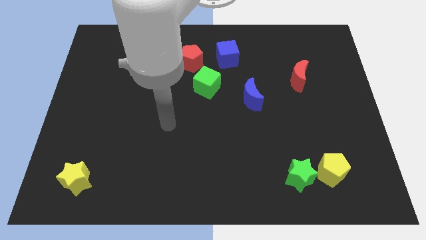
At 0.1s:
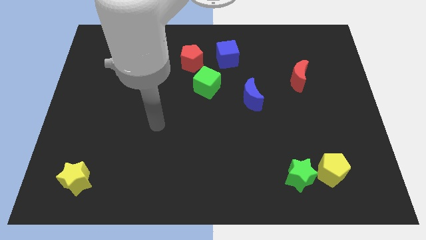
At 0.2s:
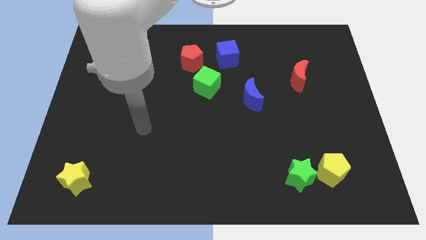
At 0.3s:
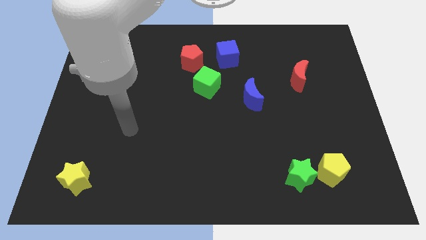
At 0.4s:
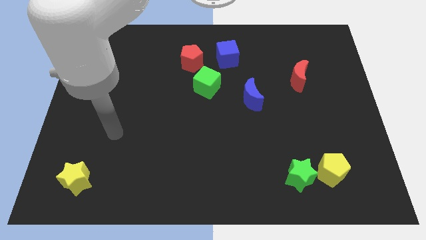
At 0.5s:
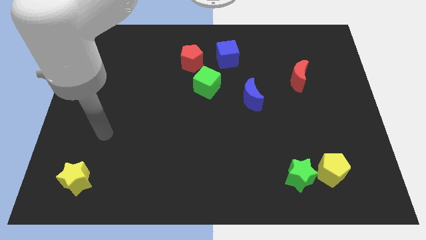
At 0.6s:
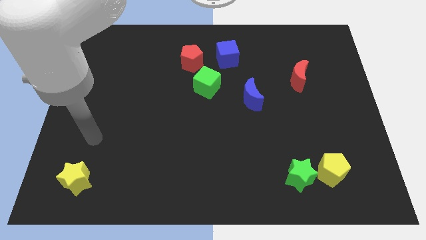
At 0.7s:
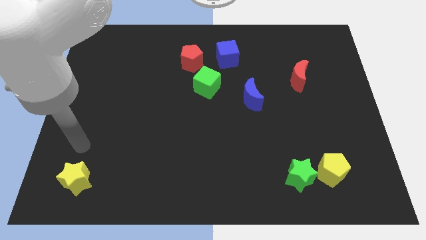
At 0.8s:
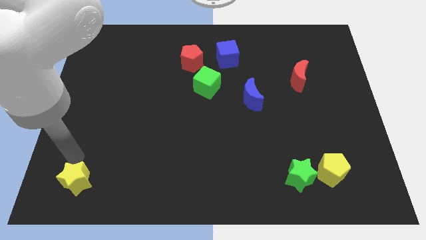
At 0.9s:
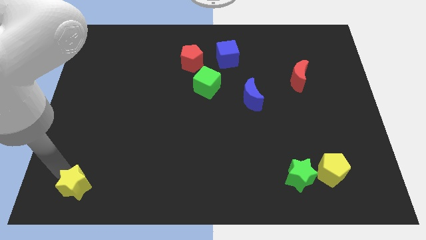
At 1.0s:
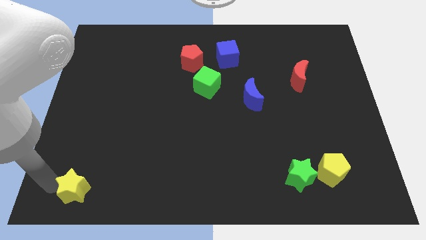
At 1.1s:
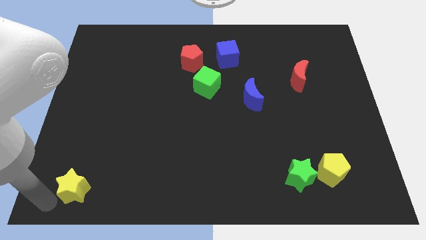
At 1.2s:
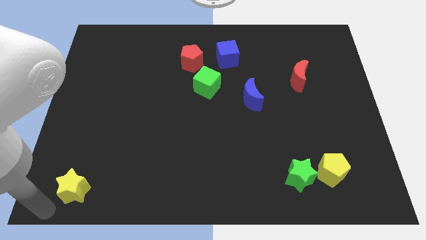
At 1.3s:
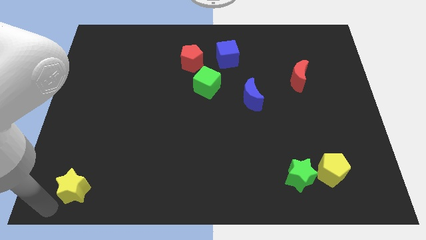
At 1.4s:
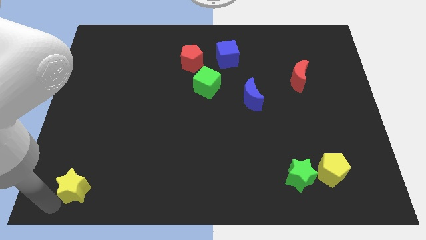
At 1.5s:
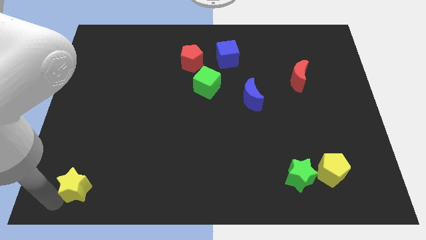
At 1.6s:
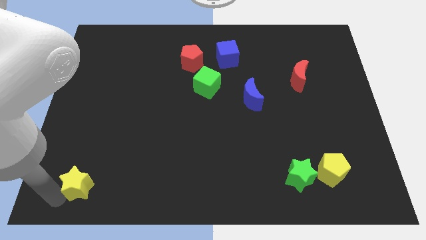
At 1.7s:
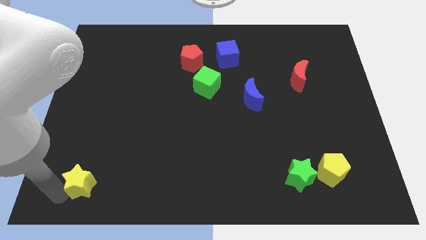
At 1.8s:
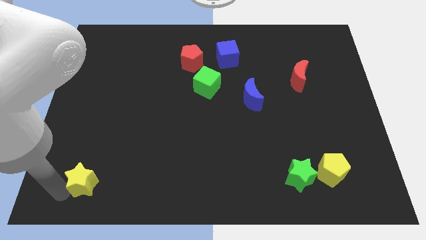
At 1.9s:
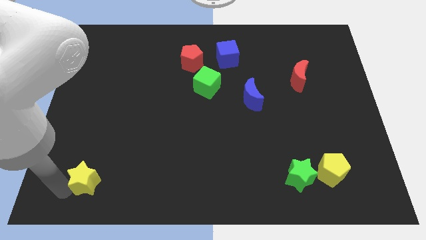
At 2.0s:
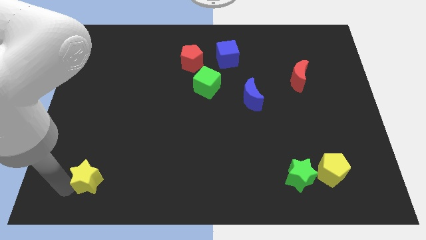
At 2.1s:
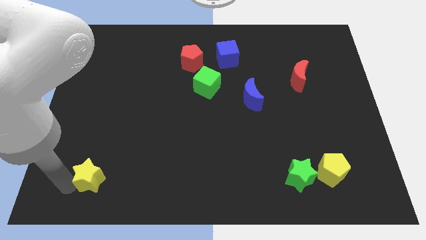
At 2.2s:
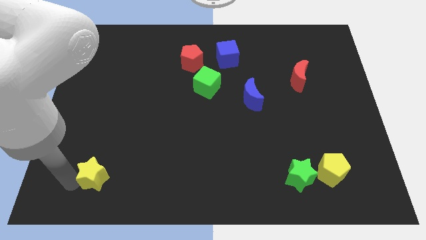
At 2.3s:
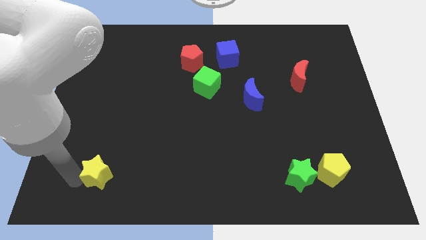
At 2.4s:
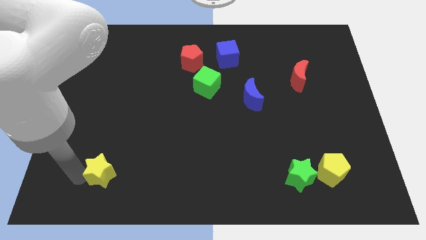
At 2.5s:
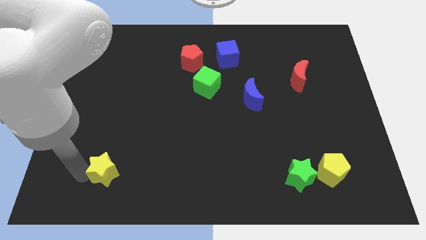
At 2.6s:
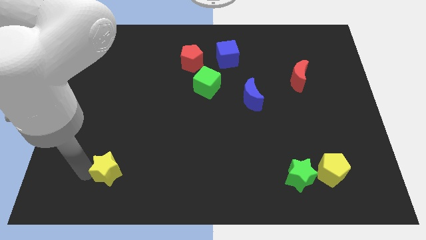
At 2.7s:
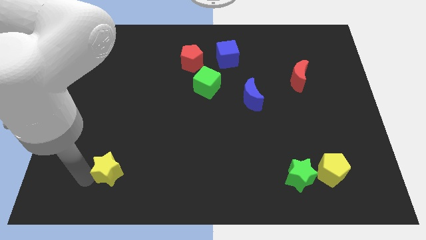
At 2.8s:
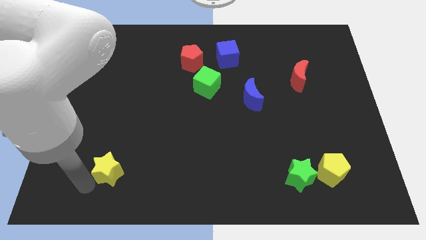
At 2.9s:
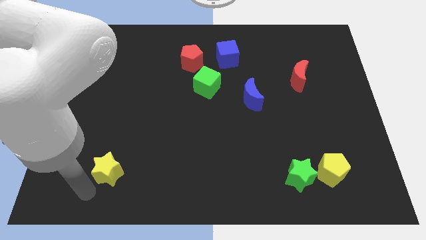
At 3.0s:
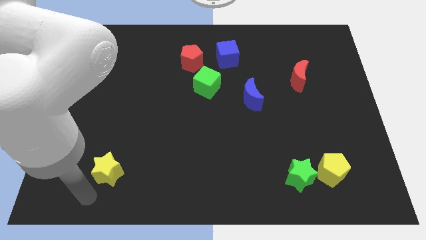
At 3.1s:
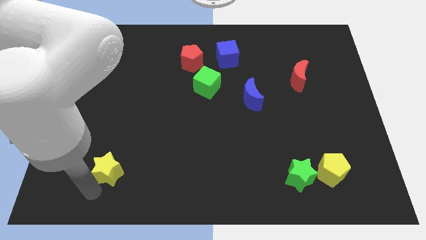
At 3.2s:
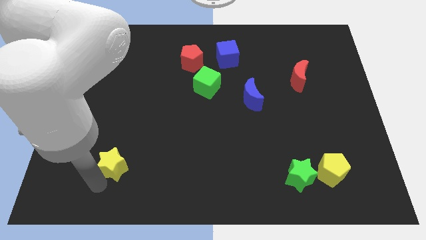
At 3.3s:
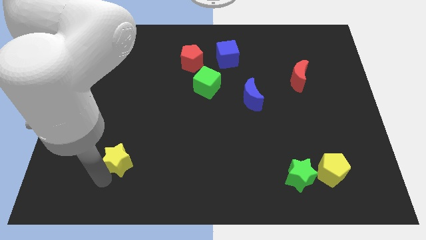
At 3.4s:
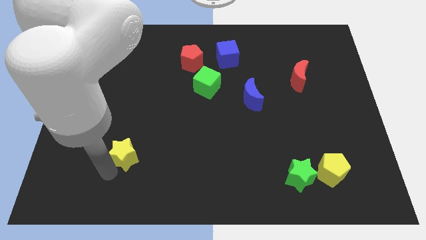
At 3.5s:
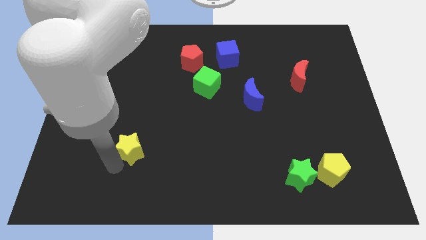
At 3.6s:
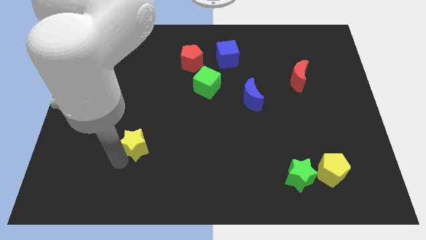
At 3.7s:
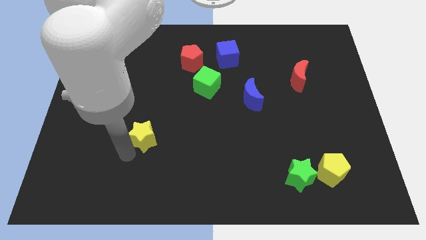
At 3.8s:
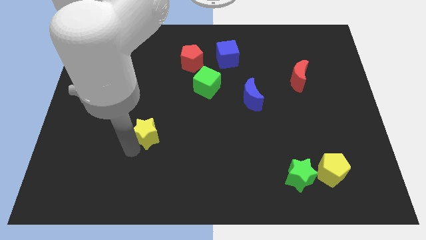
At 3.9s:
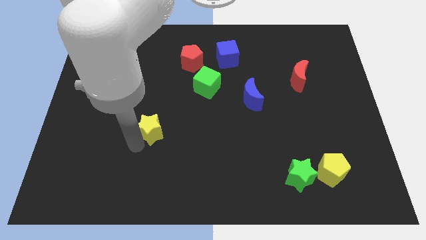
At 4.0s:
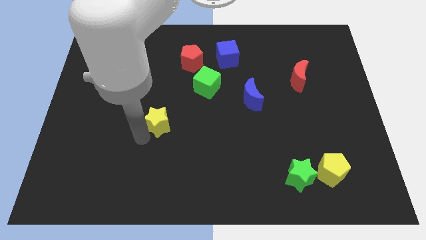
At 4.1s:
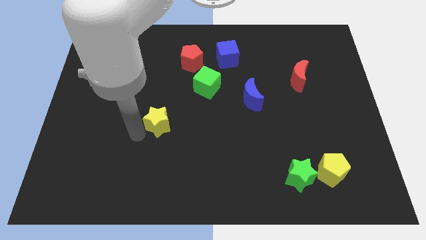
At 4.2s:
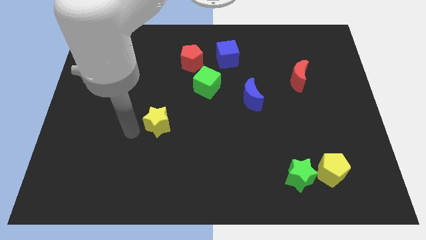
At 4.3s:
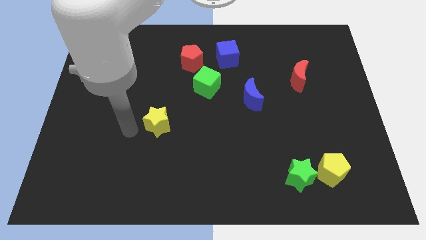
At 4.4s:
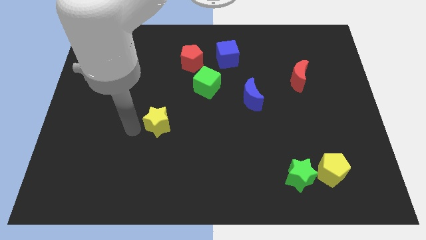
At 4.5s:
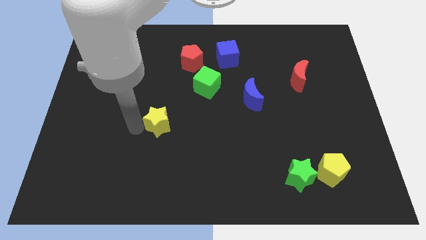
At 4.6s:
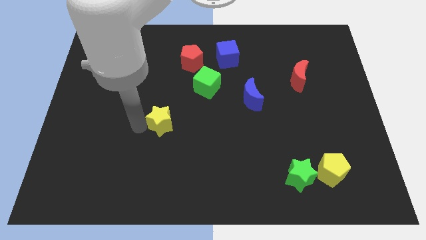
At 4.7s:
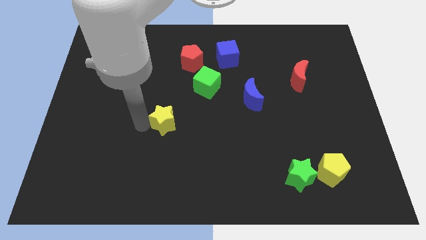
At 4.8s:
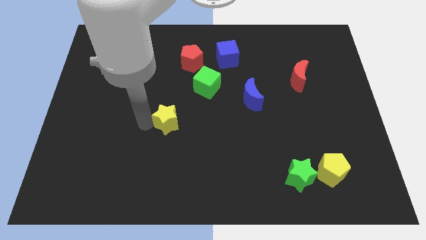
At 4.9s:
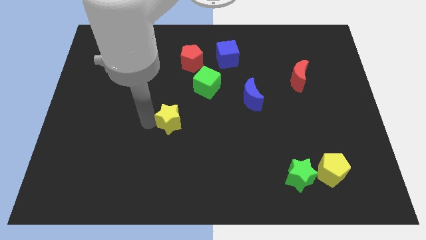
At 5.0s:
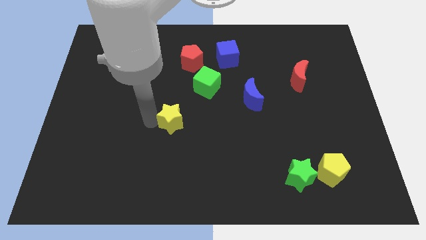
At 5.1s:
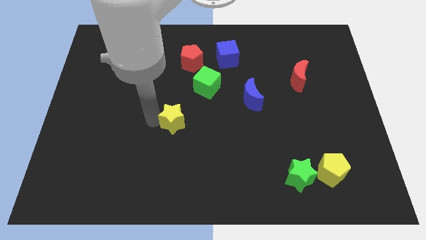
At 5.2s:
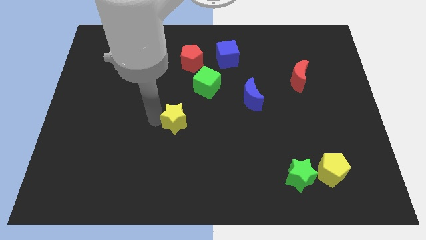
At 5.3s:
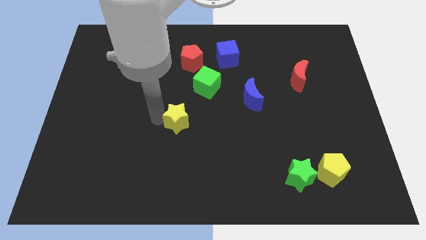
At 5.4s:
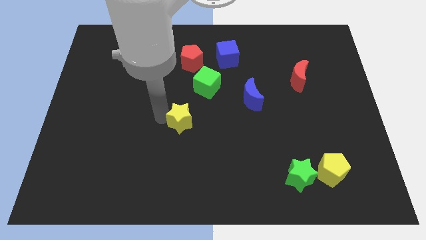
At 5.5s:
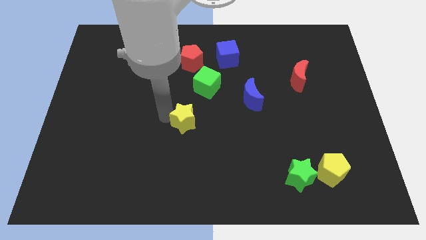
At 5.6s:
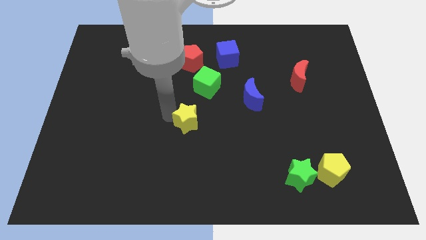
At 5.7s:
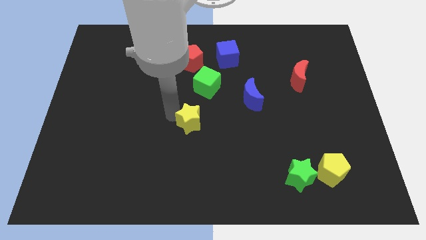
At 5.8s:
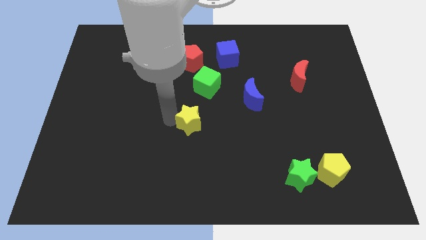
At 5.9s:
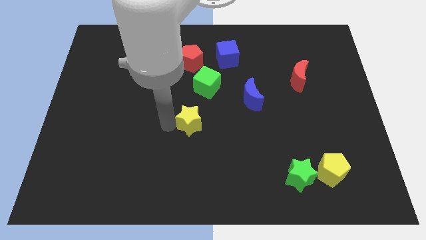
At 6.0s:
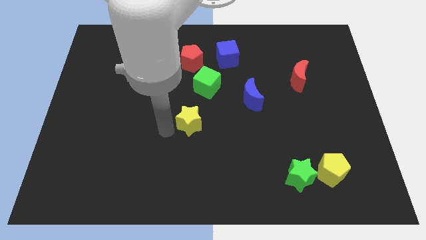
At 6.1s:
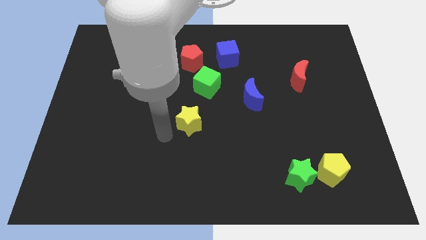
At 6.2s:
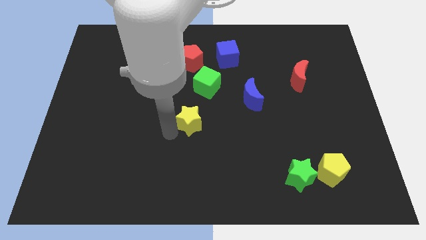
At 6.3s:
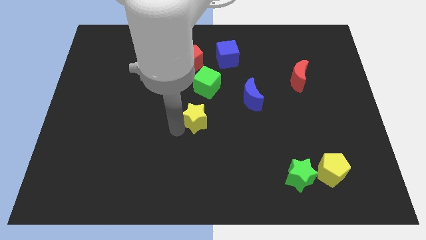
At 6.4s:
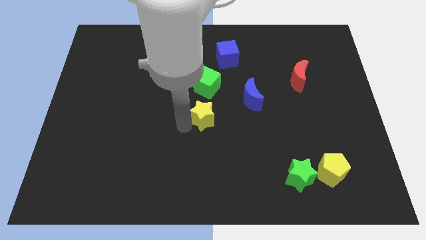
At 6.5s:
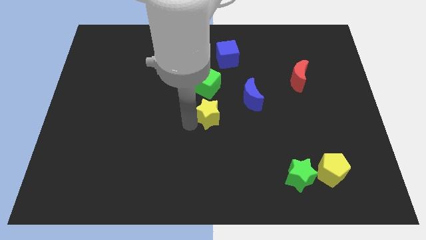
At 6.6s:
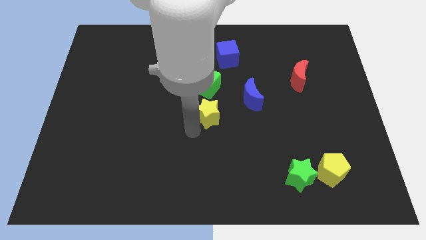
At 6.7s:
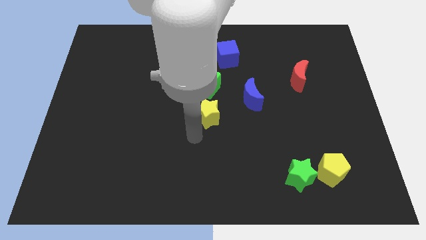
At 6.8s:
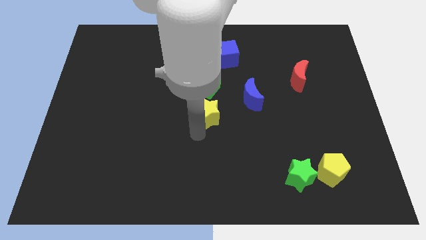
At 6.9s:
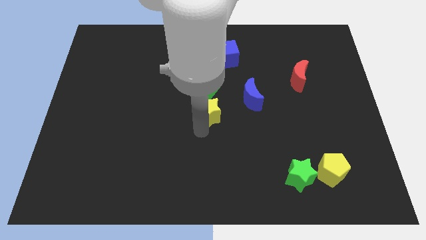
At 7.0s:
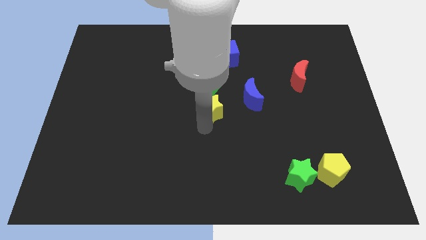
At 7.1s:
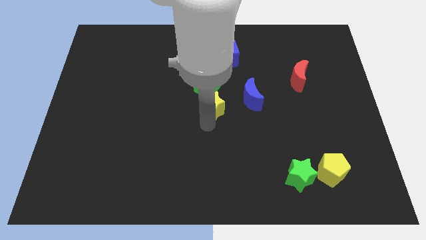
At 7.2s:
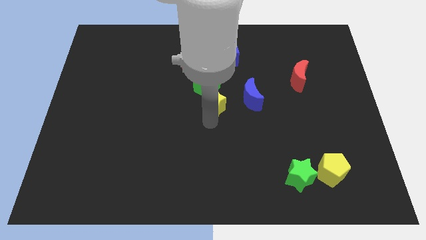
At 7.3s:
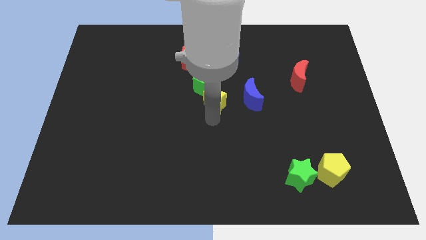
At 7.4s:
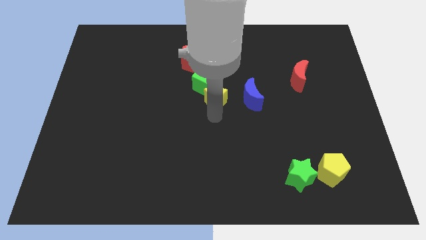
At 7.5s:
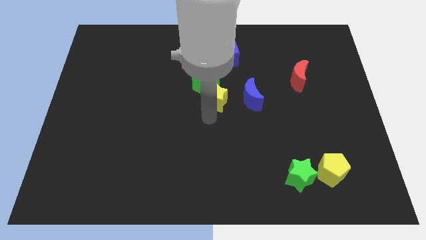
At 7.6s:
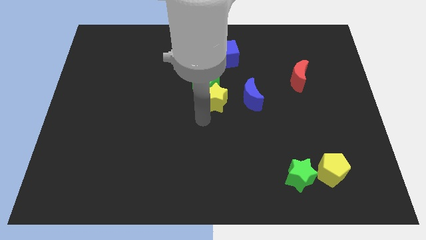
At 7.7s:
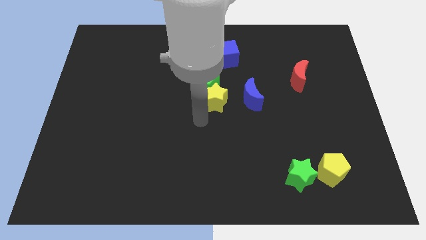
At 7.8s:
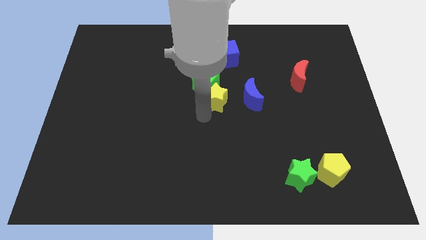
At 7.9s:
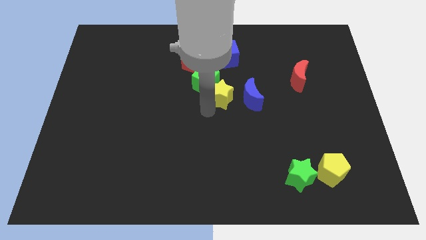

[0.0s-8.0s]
slide the yellow star to the top left of the blue moon
